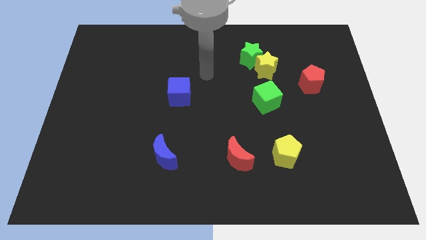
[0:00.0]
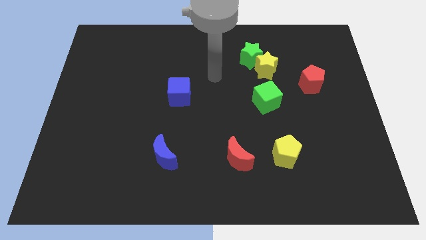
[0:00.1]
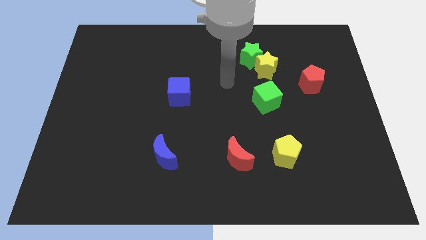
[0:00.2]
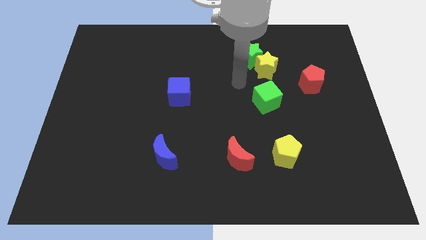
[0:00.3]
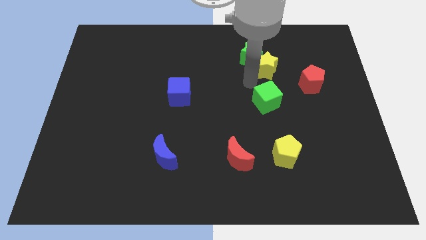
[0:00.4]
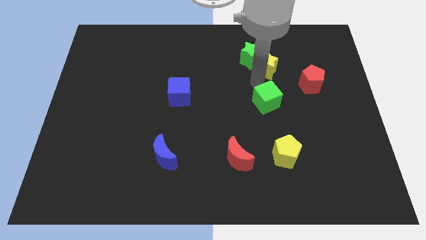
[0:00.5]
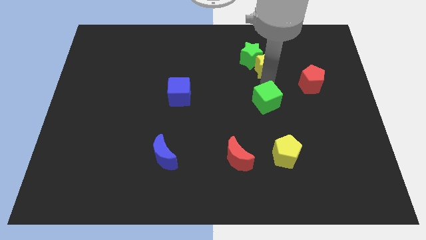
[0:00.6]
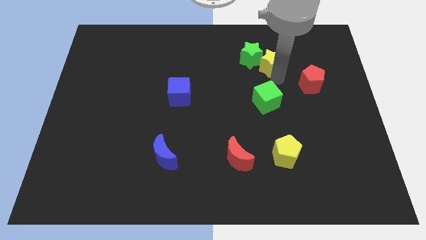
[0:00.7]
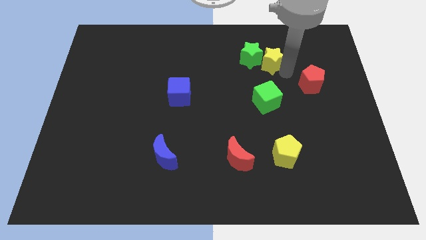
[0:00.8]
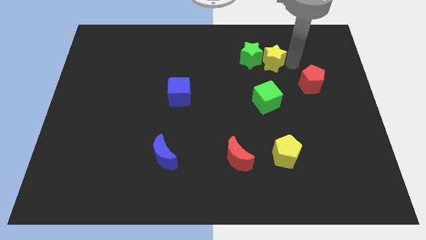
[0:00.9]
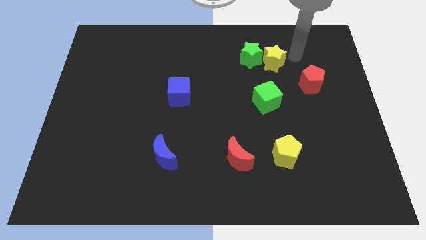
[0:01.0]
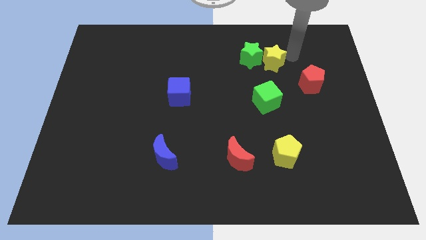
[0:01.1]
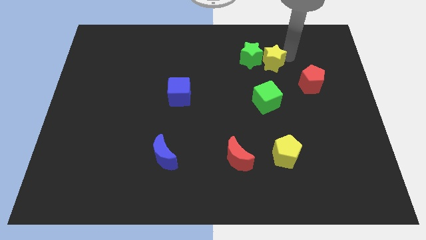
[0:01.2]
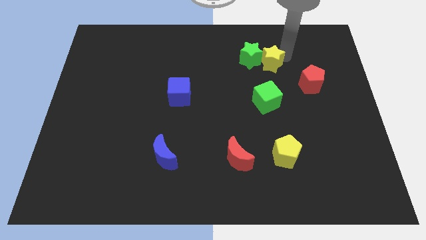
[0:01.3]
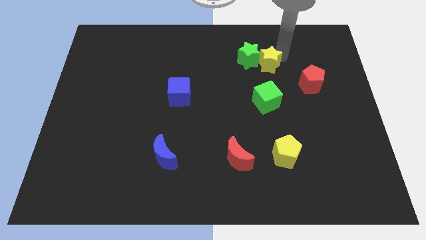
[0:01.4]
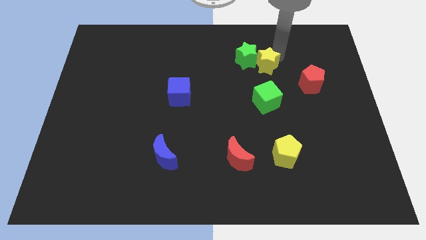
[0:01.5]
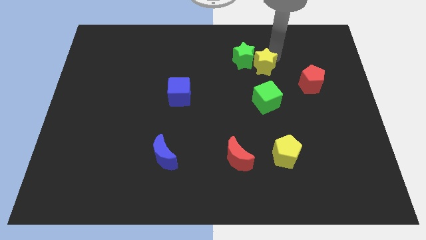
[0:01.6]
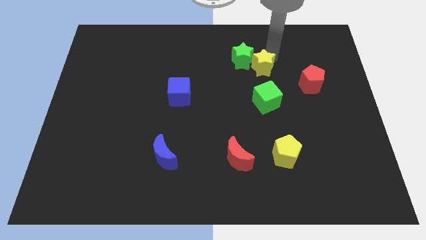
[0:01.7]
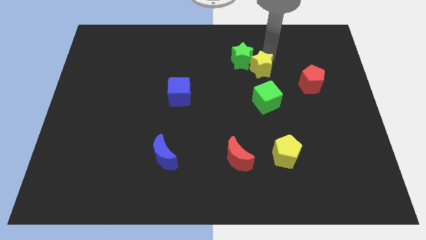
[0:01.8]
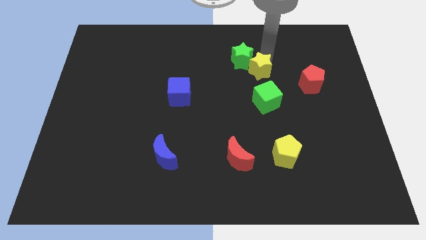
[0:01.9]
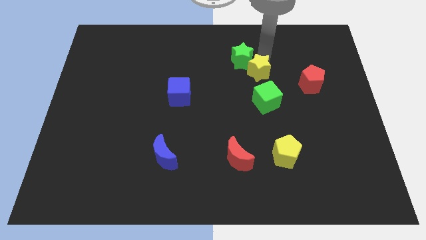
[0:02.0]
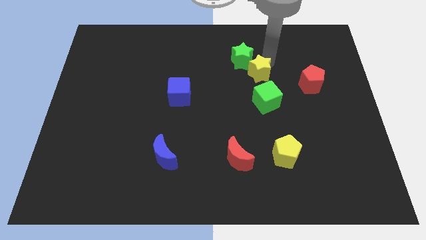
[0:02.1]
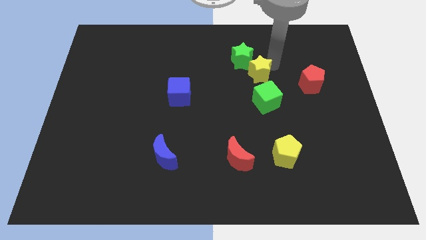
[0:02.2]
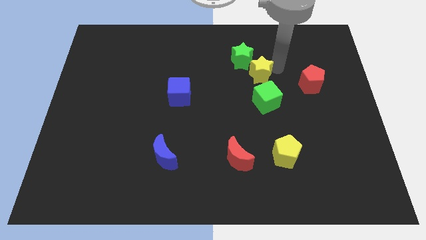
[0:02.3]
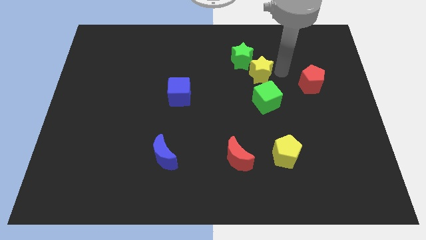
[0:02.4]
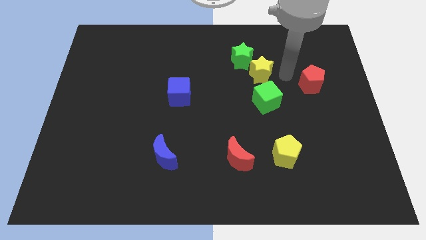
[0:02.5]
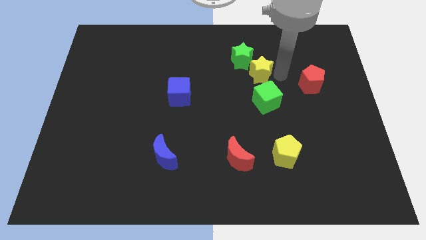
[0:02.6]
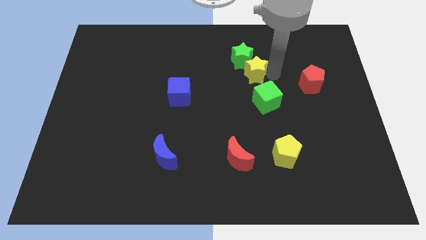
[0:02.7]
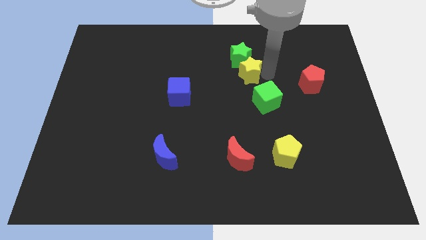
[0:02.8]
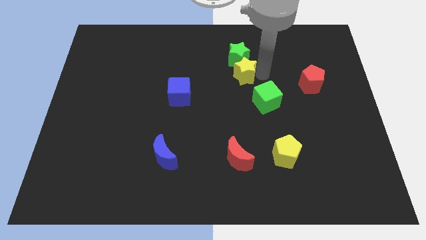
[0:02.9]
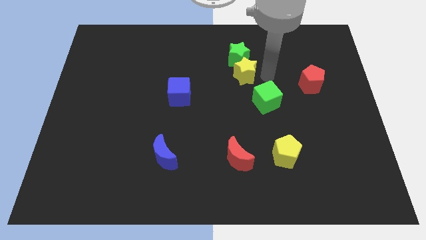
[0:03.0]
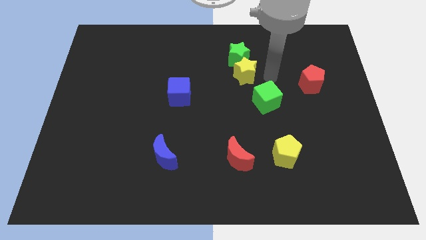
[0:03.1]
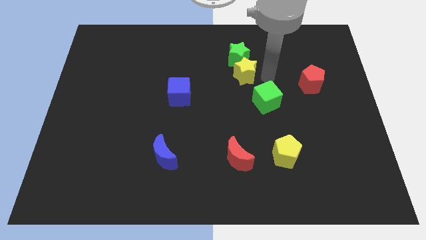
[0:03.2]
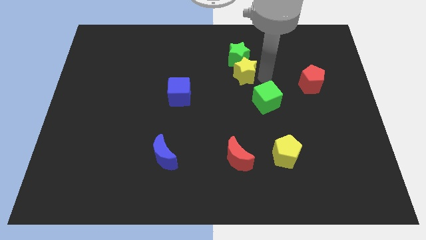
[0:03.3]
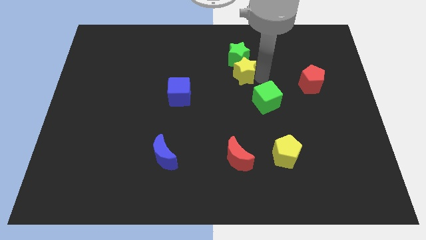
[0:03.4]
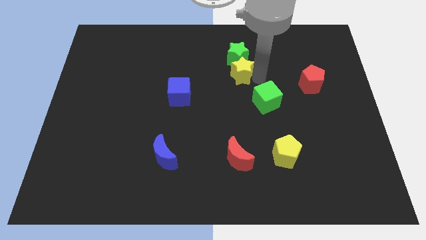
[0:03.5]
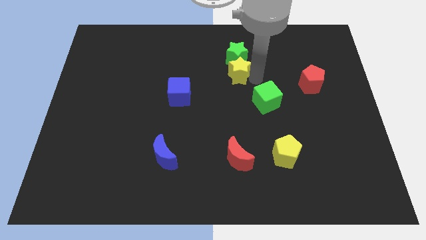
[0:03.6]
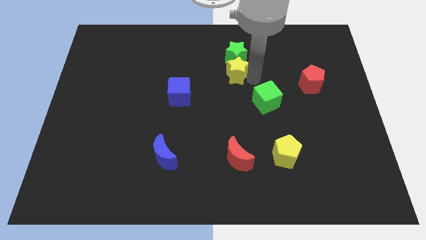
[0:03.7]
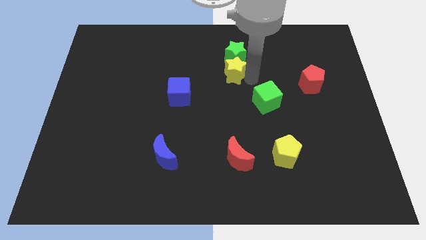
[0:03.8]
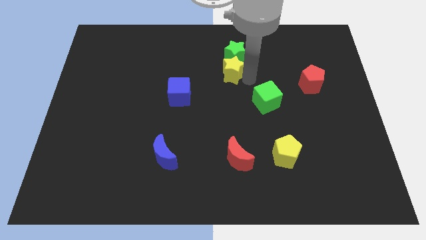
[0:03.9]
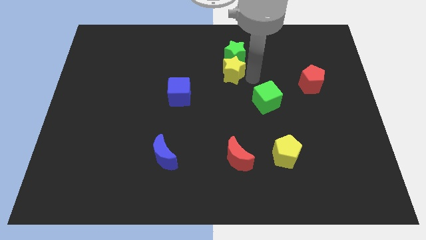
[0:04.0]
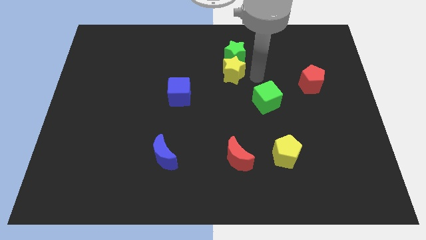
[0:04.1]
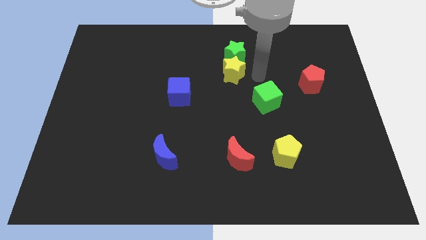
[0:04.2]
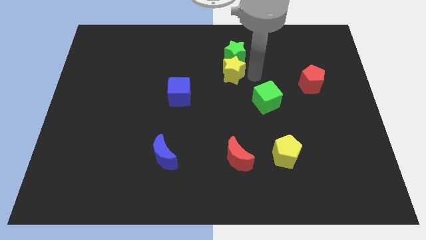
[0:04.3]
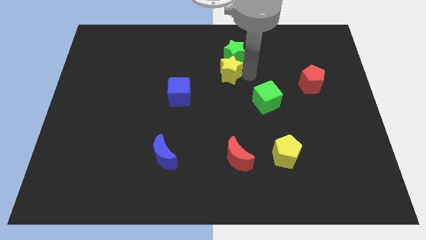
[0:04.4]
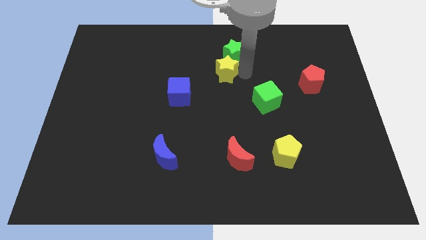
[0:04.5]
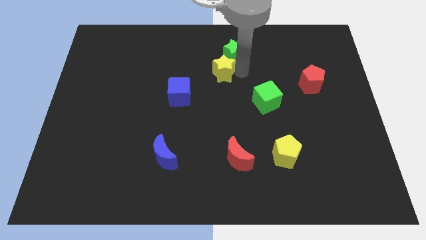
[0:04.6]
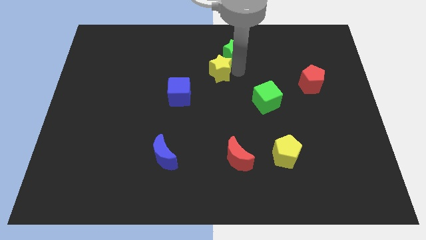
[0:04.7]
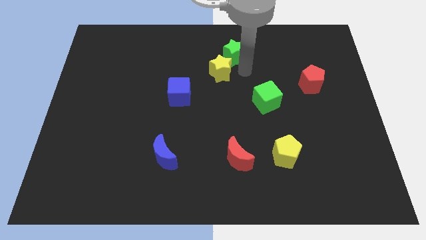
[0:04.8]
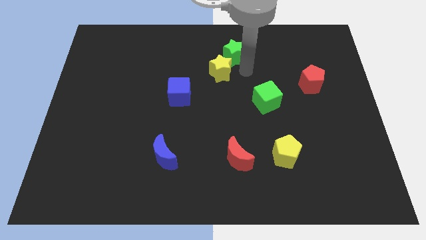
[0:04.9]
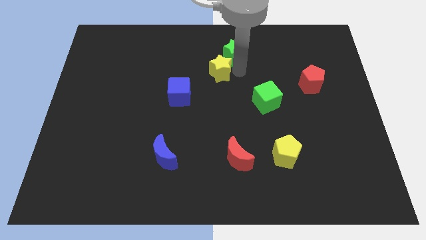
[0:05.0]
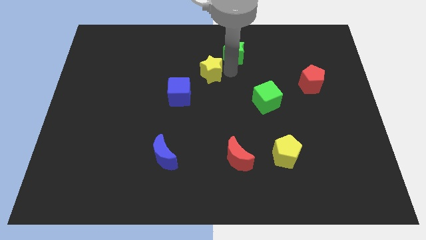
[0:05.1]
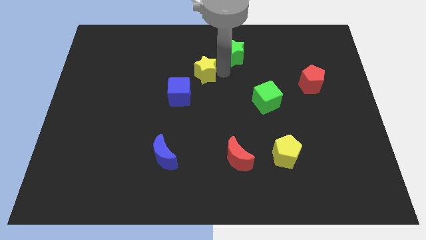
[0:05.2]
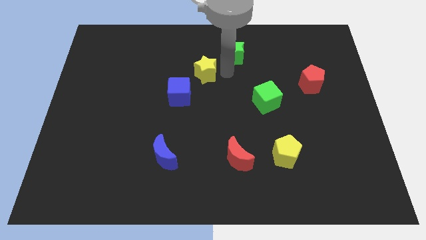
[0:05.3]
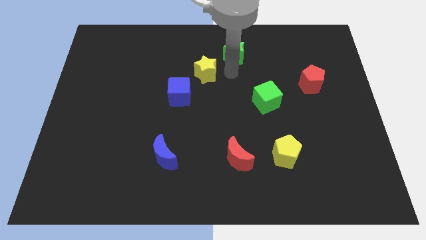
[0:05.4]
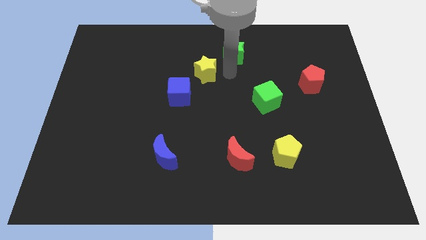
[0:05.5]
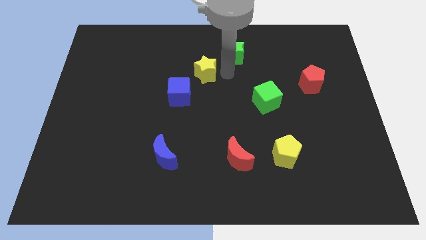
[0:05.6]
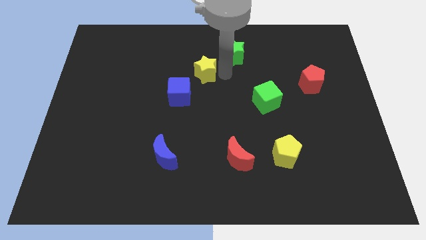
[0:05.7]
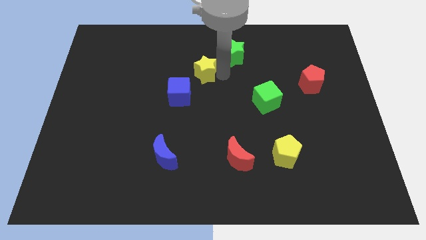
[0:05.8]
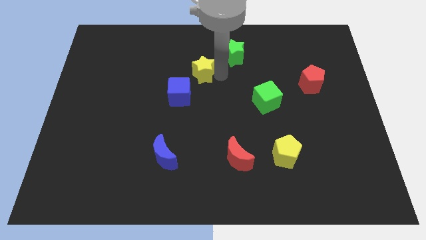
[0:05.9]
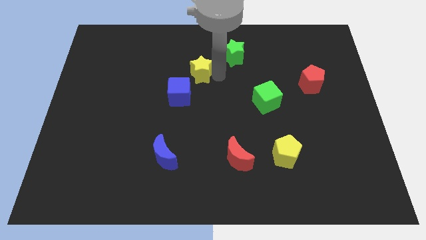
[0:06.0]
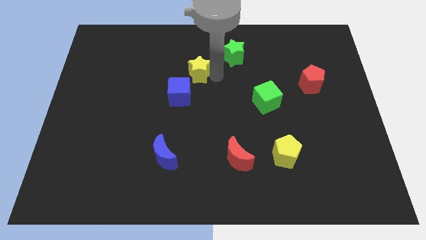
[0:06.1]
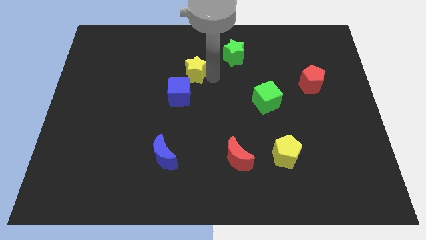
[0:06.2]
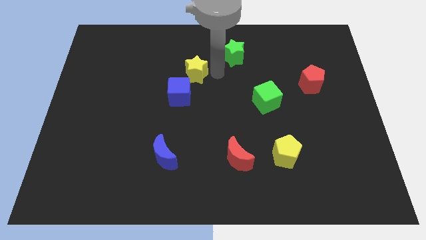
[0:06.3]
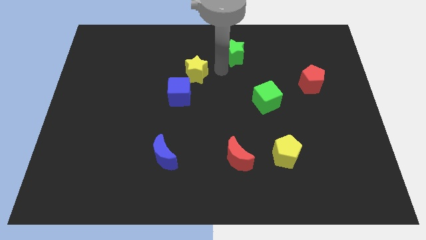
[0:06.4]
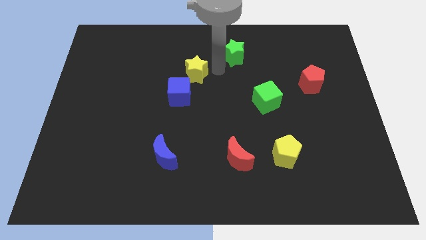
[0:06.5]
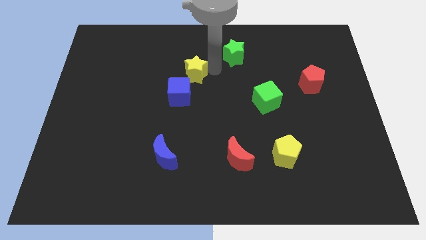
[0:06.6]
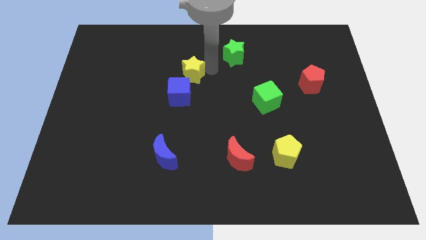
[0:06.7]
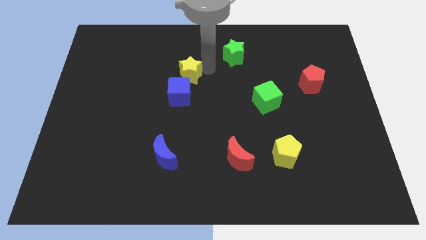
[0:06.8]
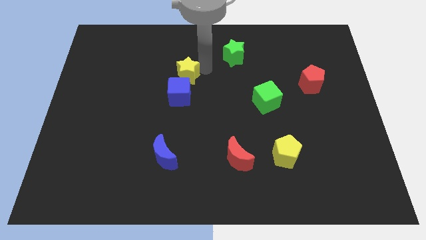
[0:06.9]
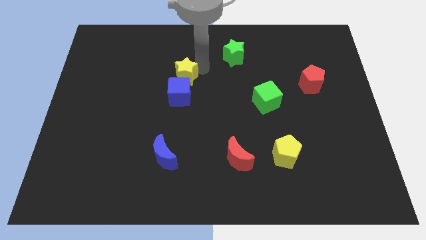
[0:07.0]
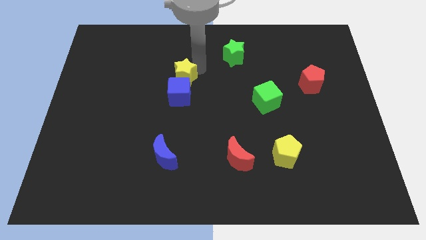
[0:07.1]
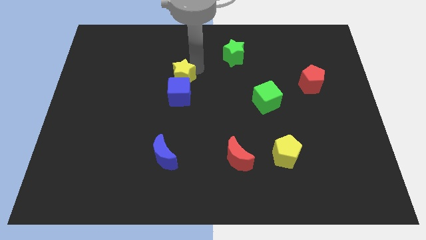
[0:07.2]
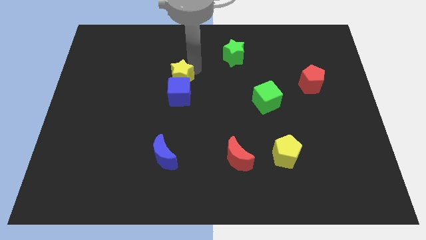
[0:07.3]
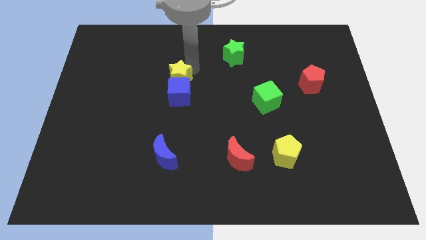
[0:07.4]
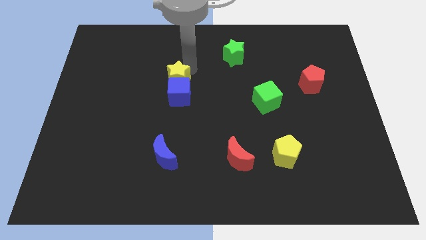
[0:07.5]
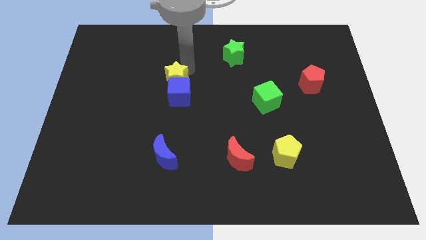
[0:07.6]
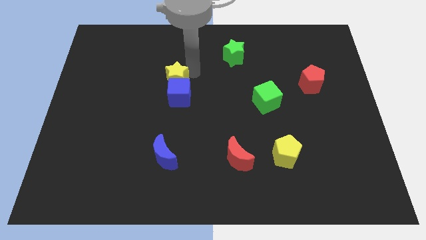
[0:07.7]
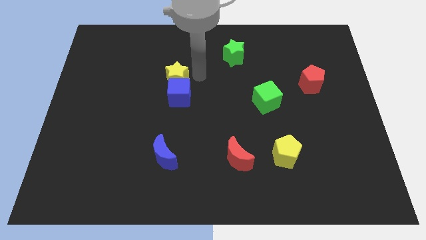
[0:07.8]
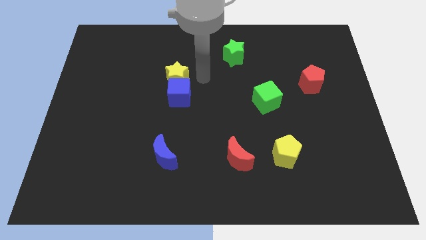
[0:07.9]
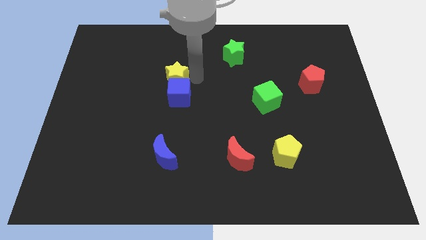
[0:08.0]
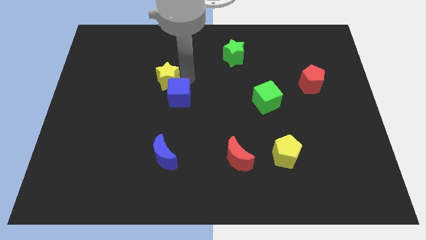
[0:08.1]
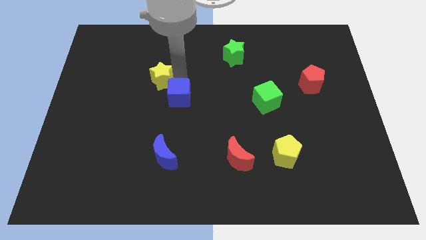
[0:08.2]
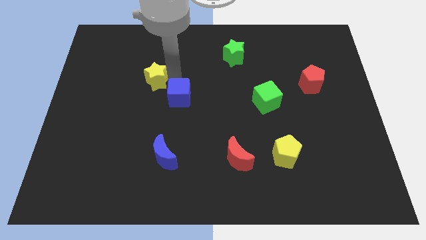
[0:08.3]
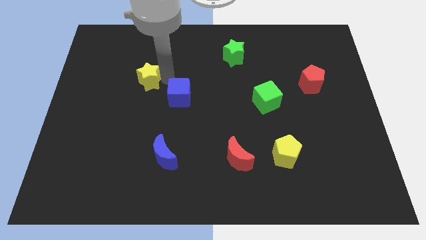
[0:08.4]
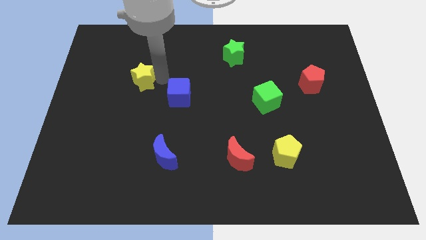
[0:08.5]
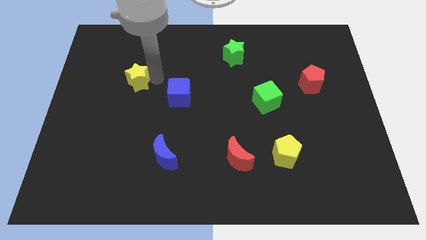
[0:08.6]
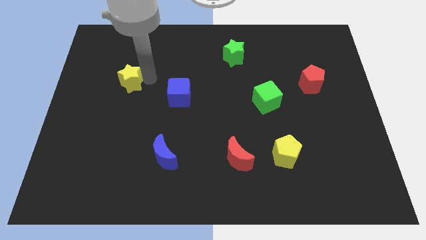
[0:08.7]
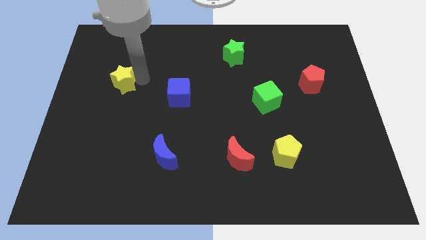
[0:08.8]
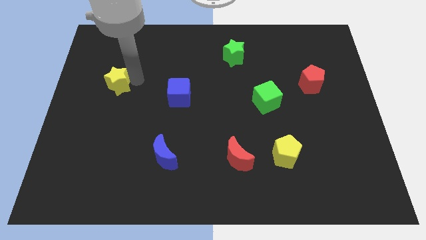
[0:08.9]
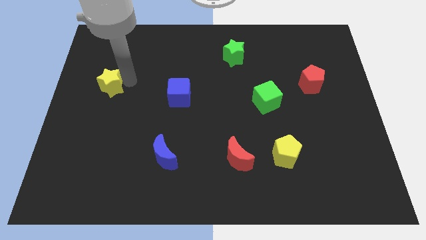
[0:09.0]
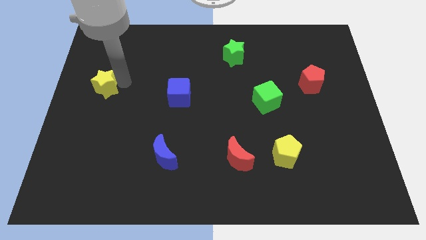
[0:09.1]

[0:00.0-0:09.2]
slide the yellow star to the left side
